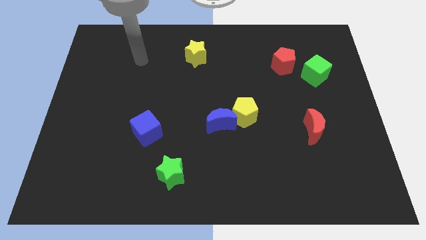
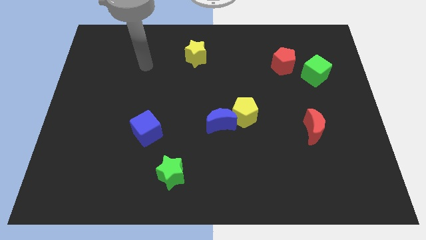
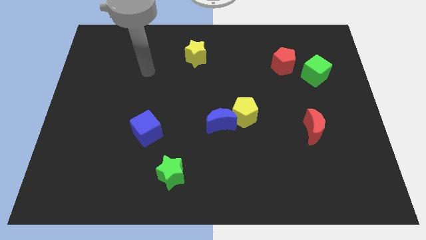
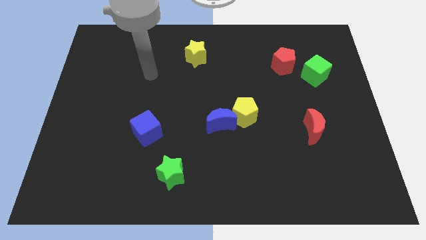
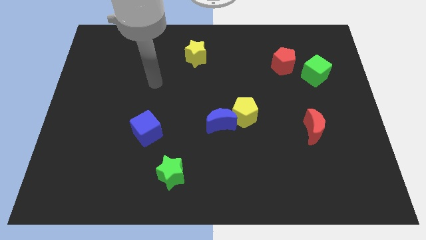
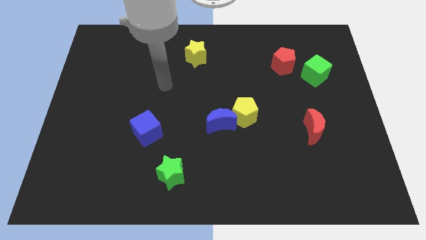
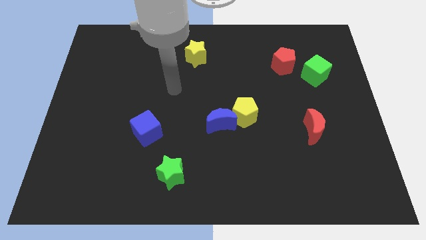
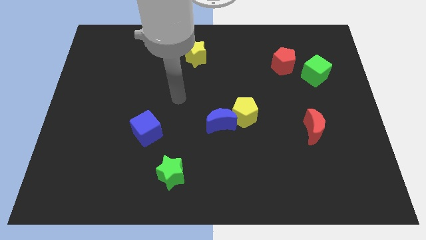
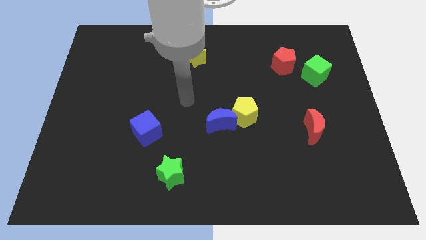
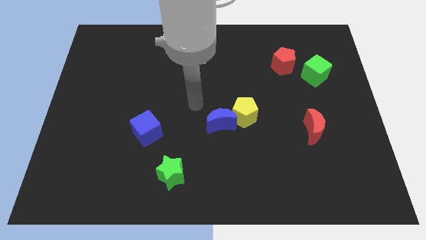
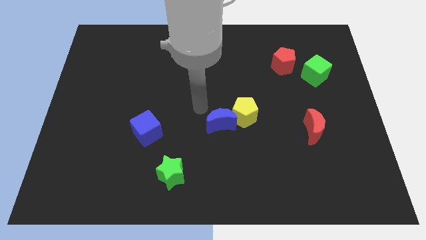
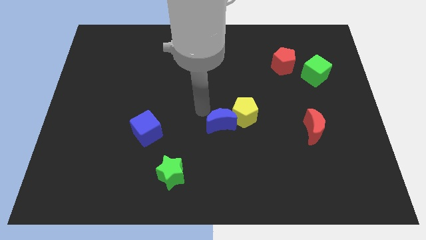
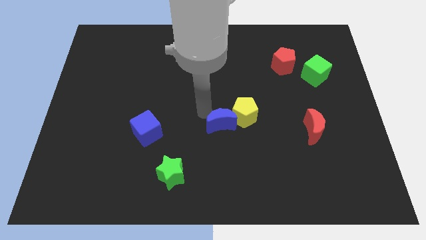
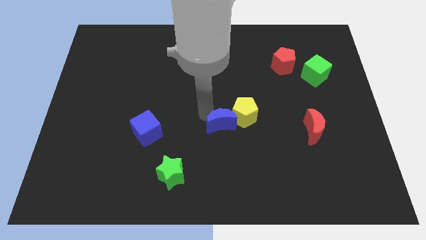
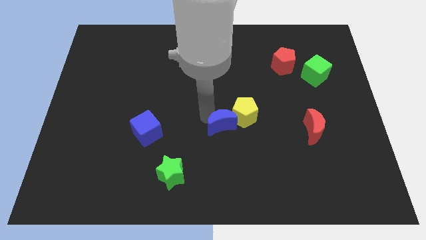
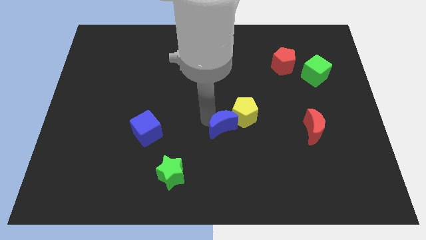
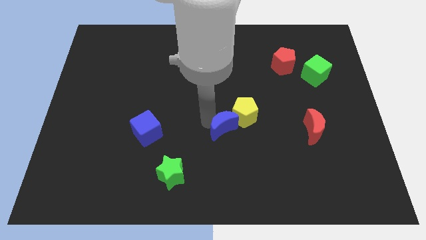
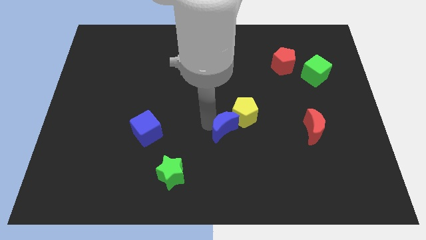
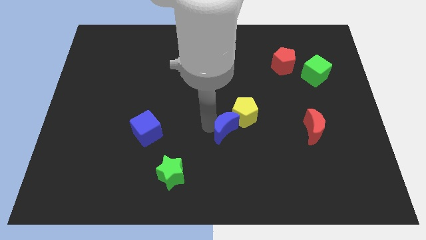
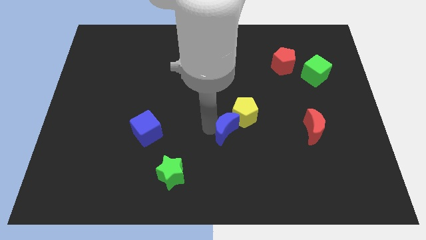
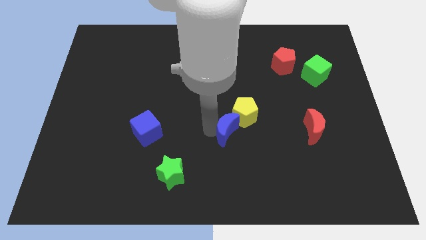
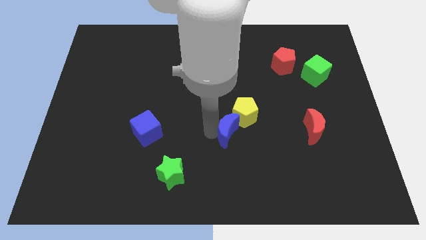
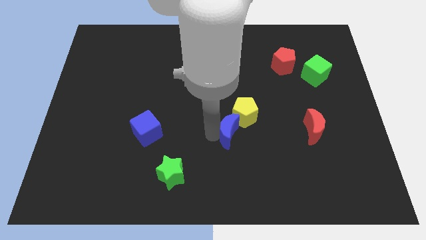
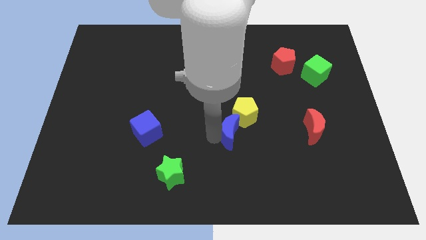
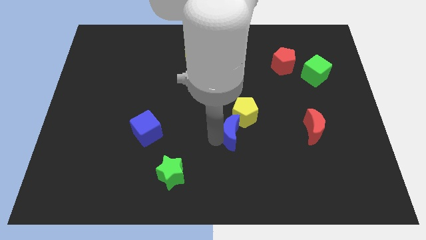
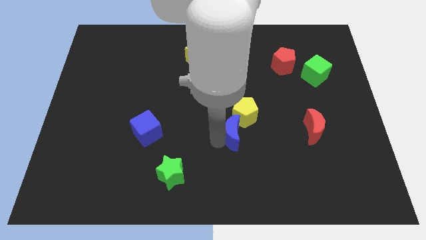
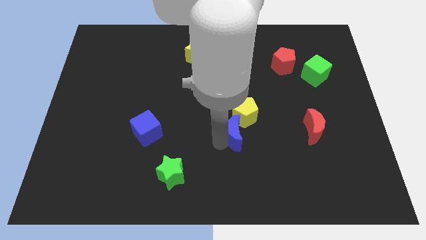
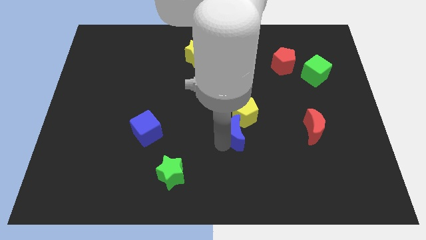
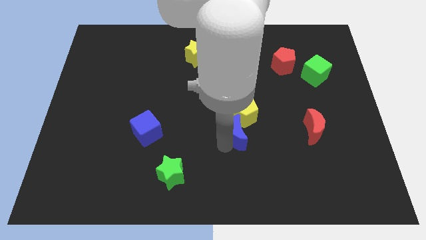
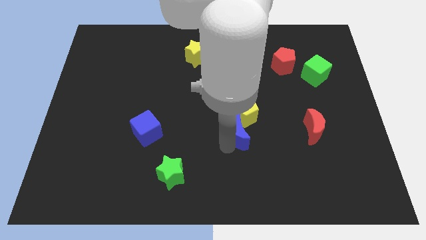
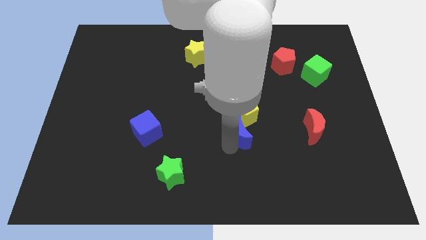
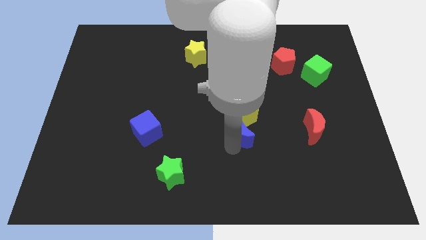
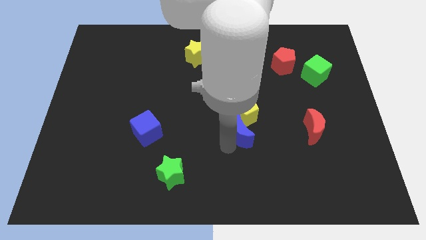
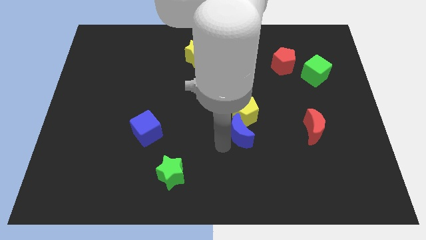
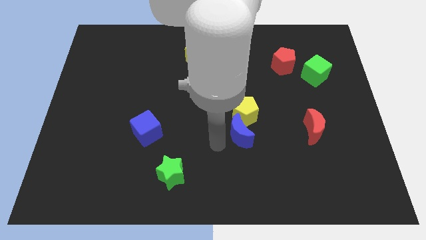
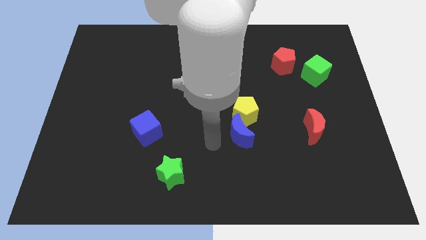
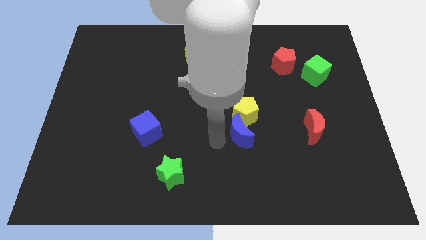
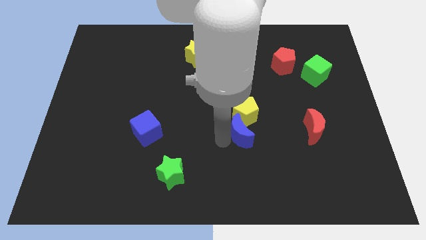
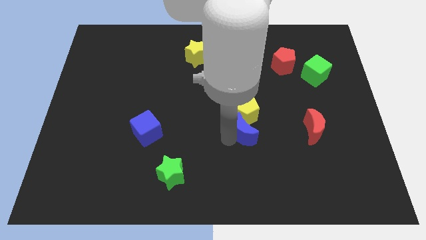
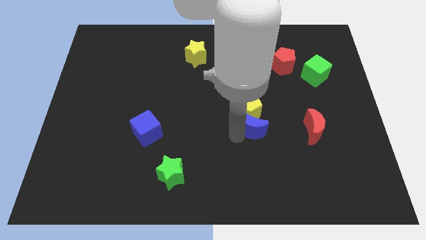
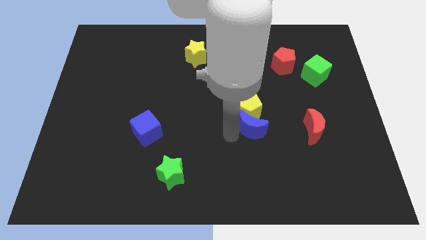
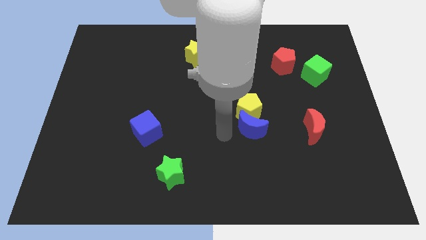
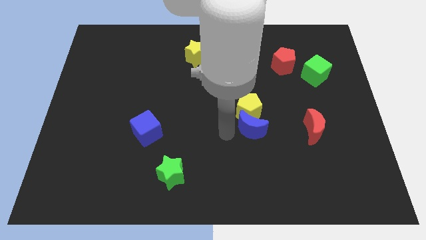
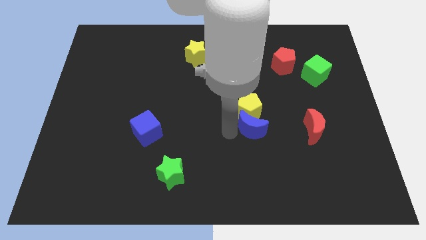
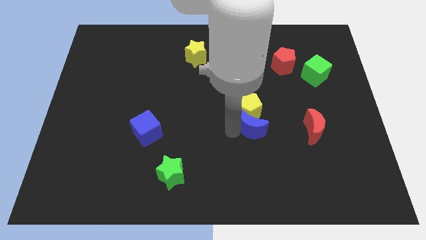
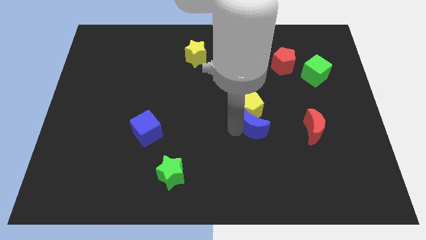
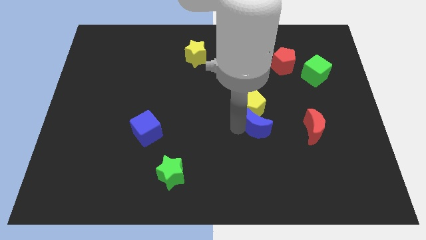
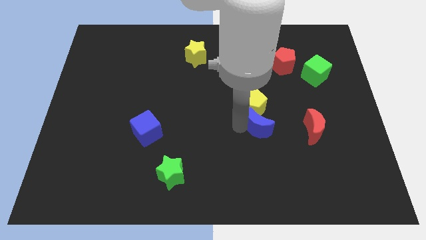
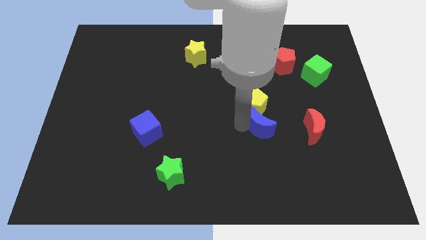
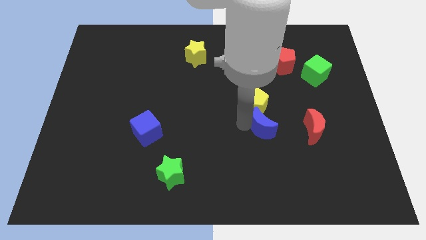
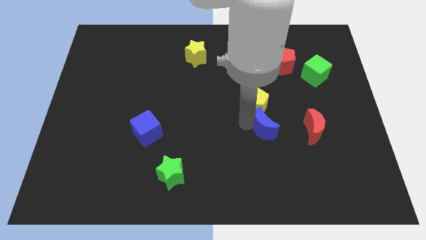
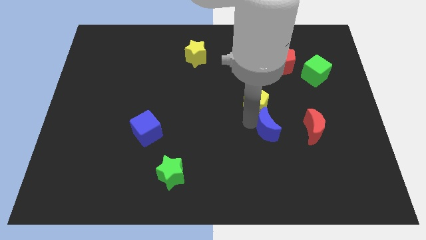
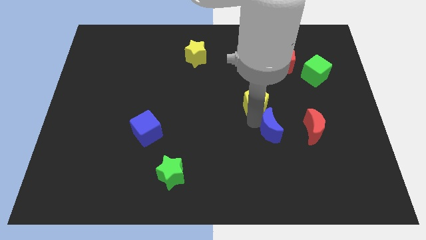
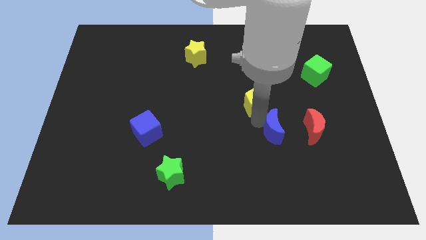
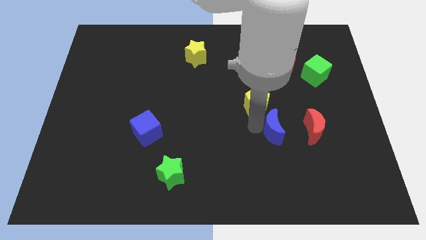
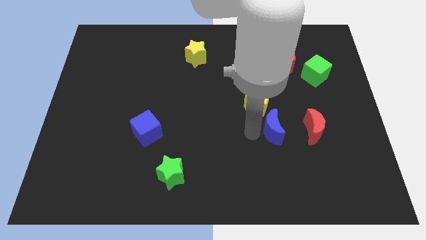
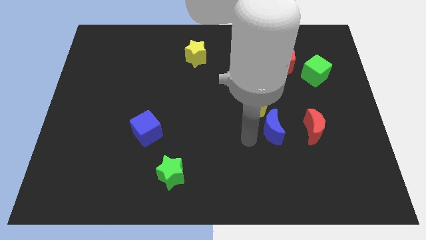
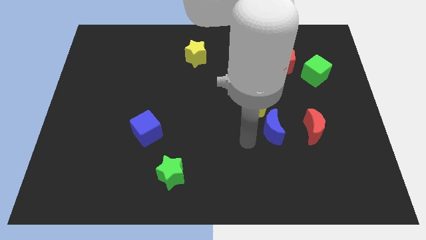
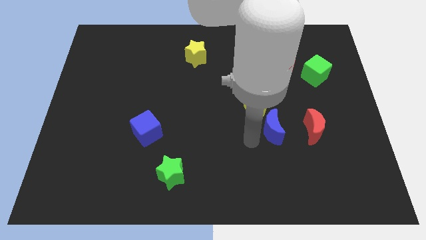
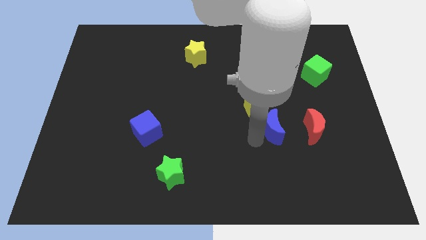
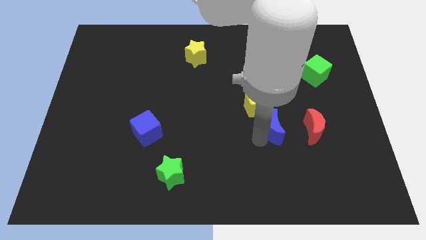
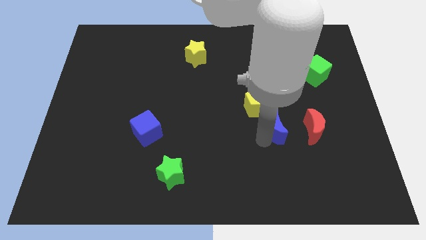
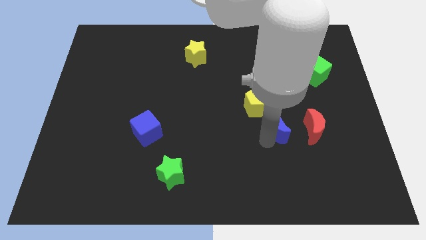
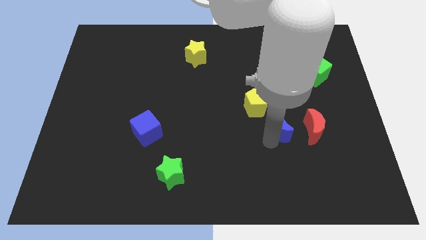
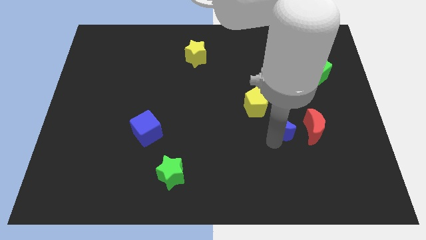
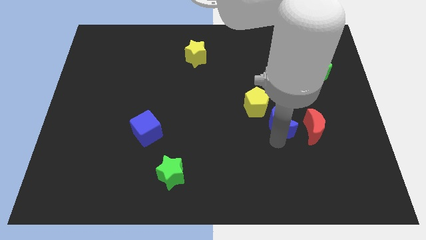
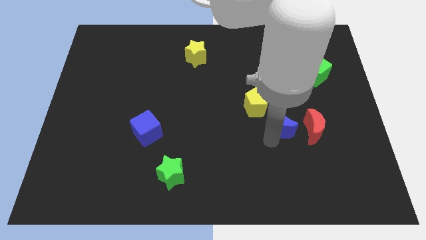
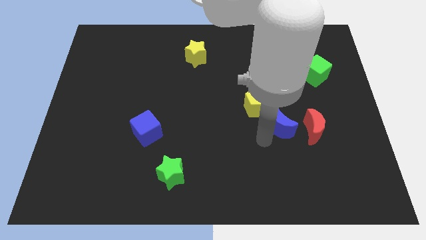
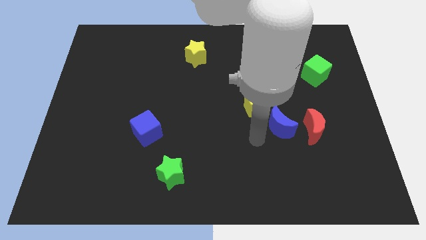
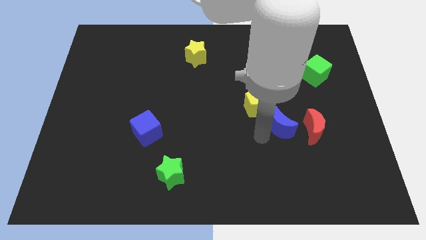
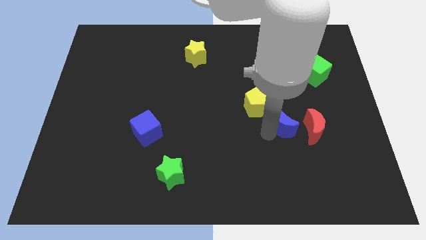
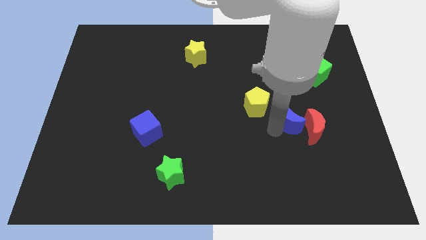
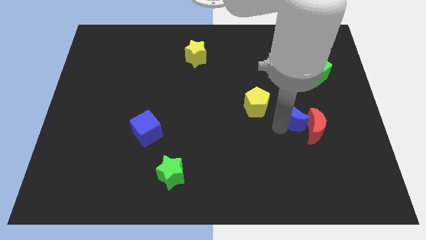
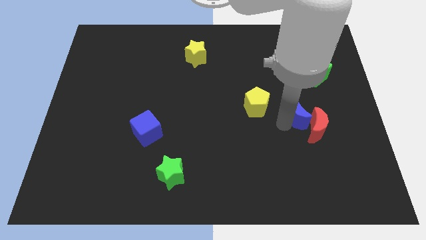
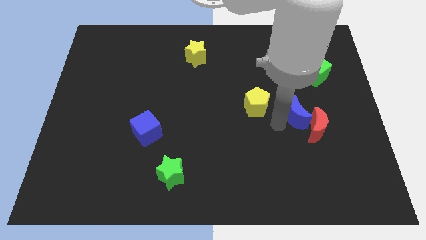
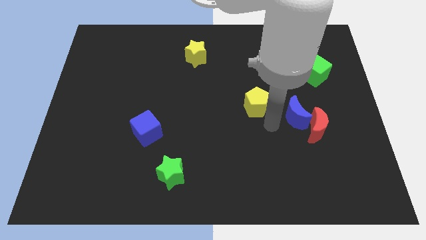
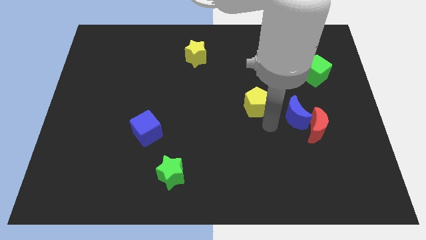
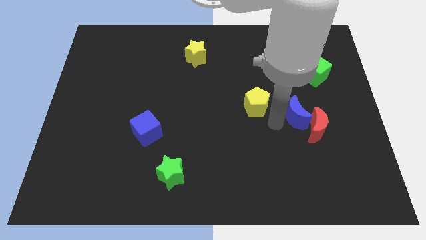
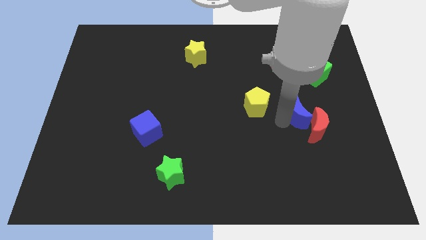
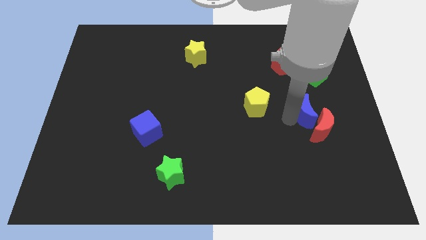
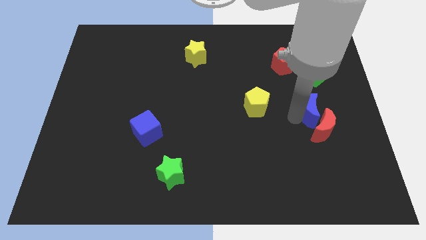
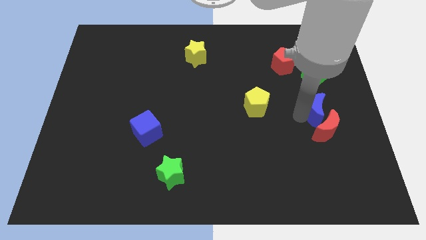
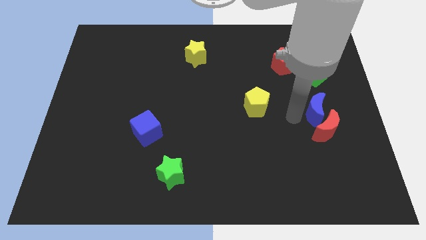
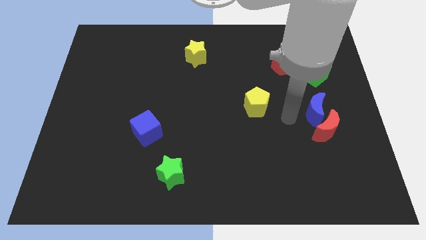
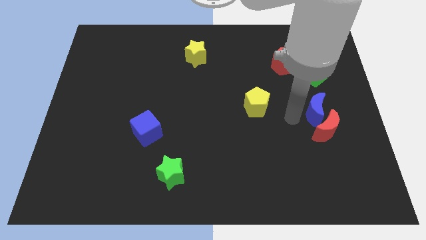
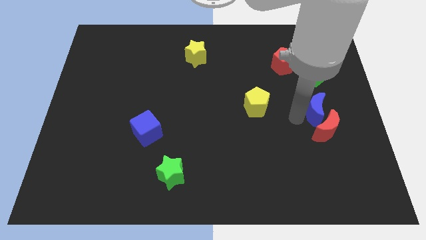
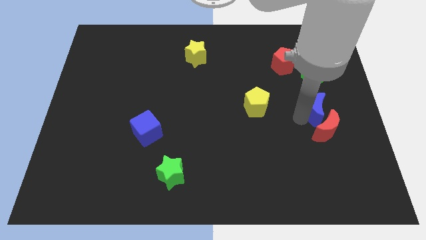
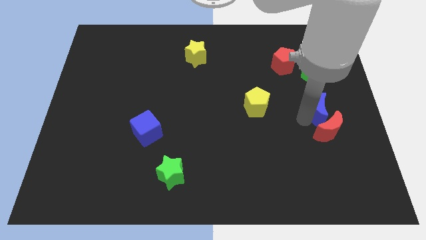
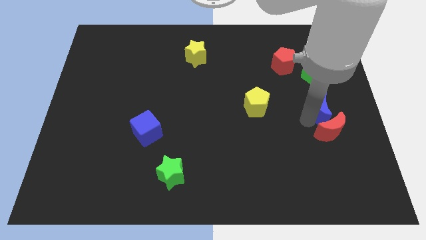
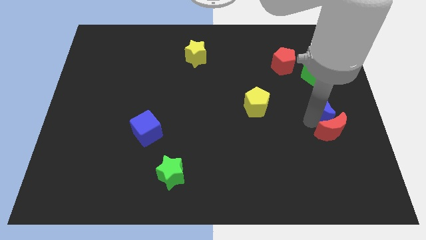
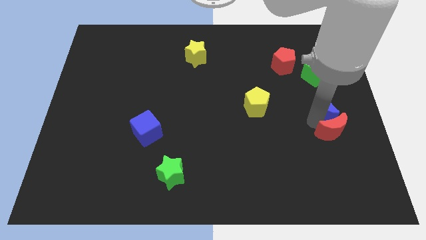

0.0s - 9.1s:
slide the blue moon to the right side
